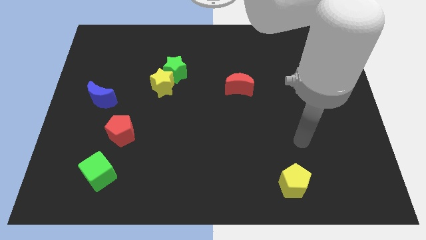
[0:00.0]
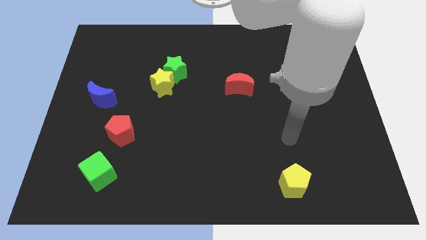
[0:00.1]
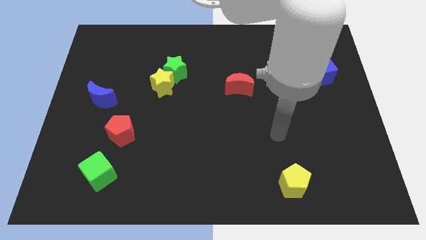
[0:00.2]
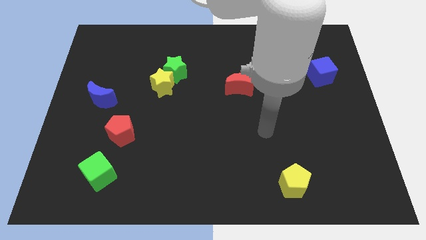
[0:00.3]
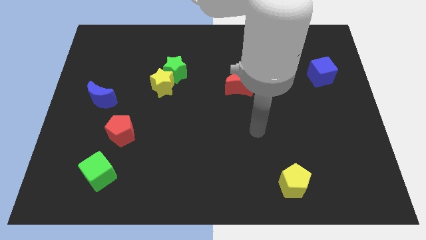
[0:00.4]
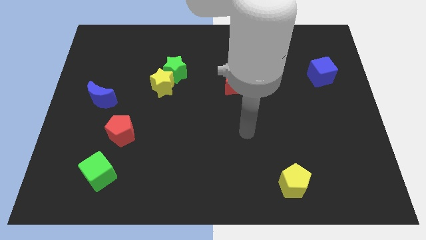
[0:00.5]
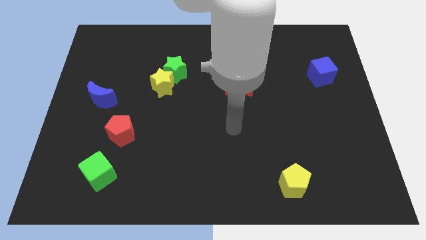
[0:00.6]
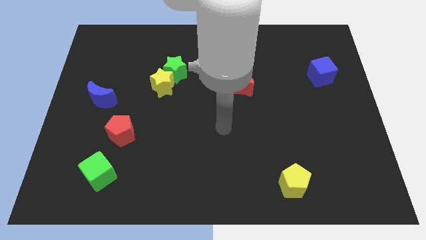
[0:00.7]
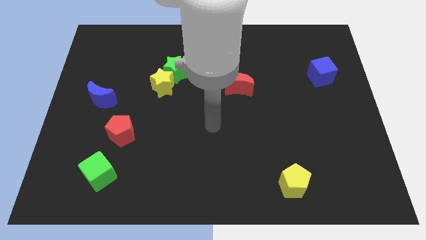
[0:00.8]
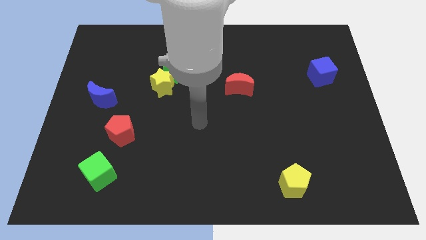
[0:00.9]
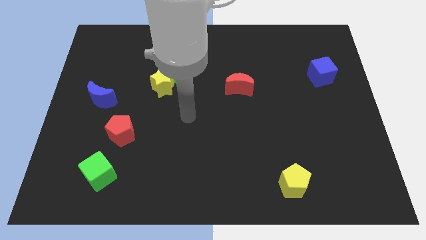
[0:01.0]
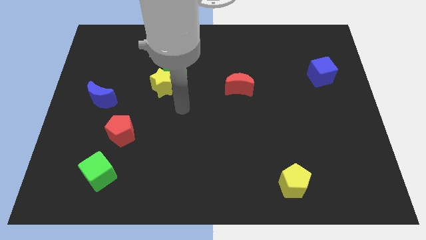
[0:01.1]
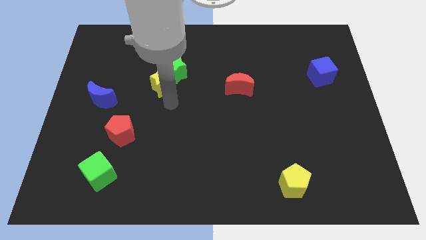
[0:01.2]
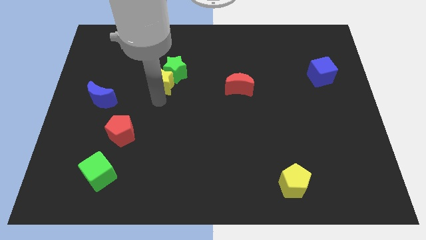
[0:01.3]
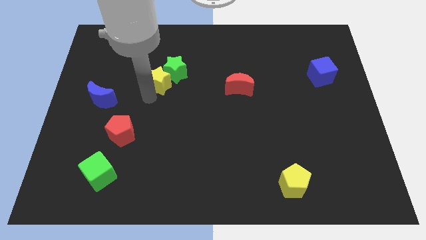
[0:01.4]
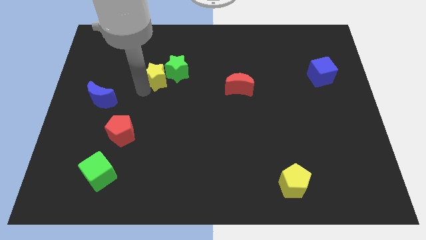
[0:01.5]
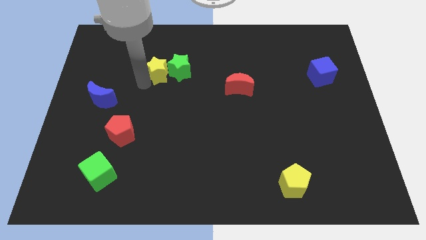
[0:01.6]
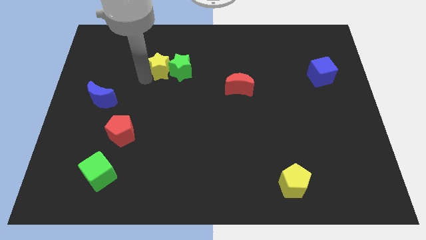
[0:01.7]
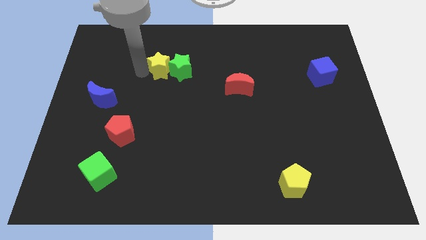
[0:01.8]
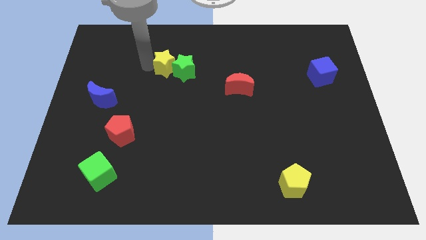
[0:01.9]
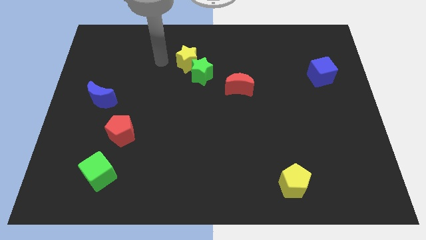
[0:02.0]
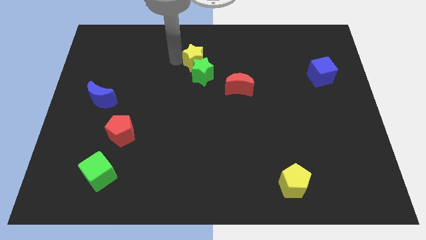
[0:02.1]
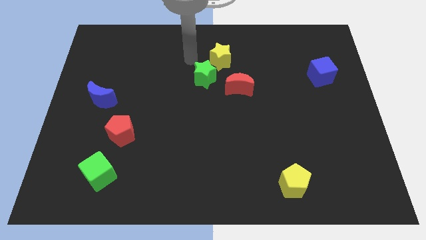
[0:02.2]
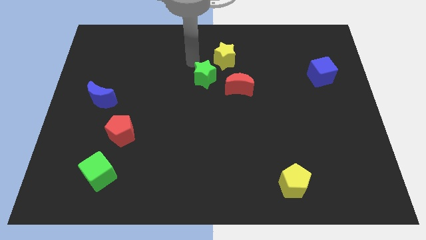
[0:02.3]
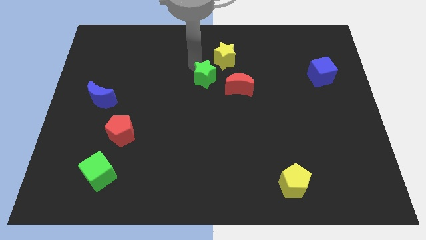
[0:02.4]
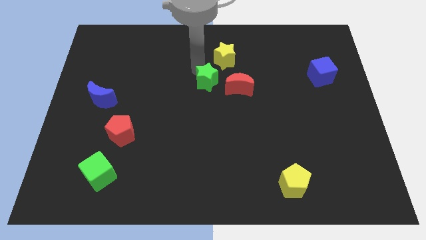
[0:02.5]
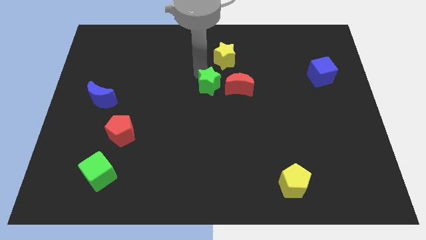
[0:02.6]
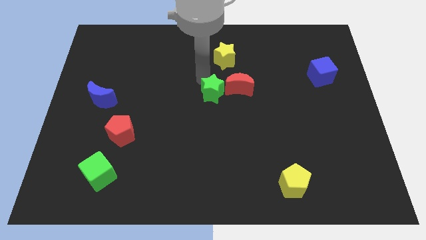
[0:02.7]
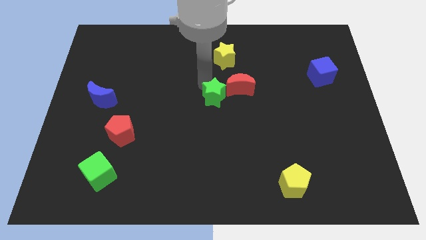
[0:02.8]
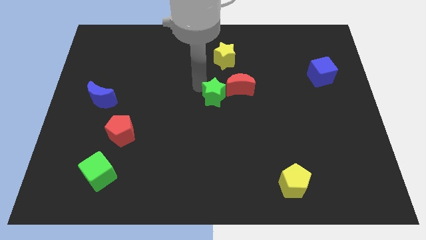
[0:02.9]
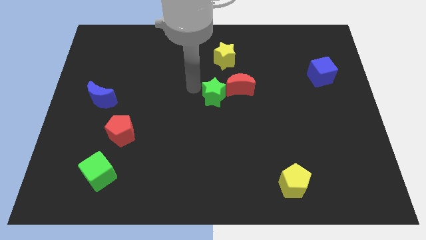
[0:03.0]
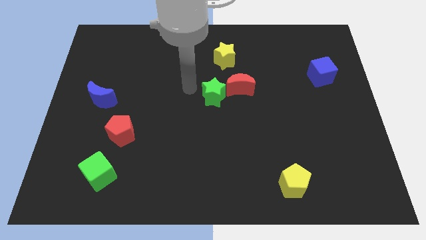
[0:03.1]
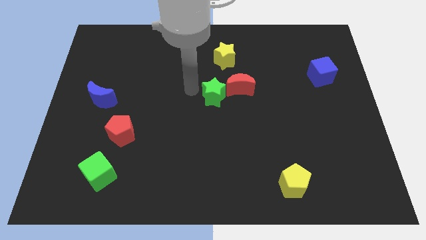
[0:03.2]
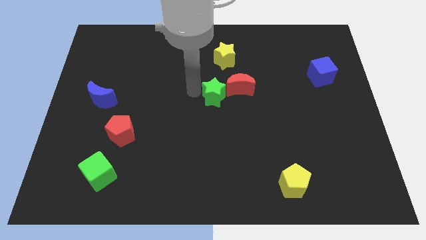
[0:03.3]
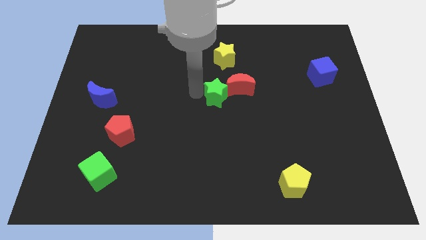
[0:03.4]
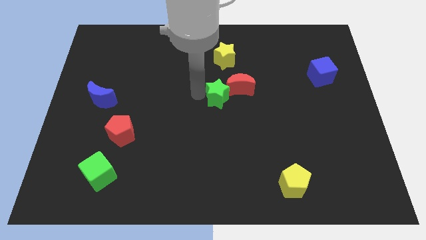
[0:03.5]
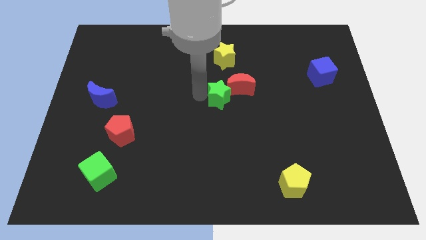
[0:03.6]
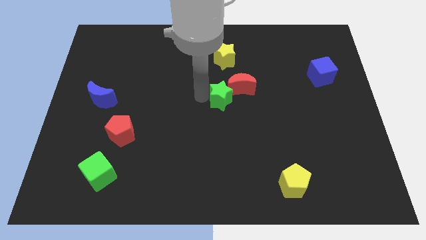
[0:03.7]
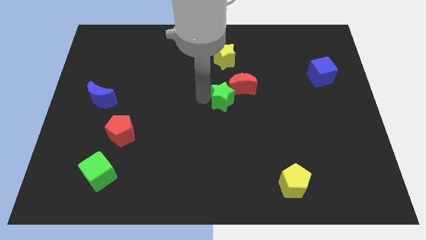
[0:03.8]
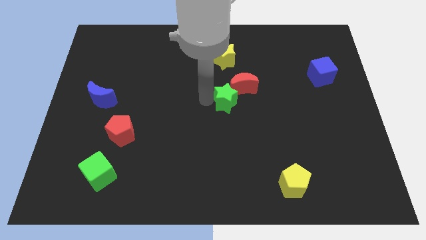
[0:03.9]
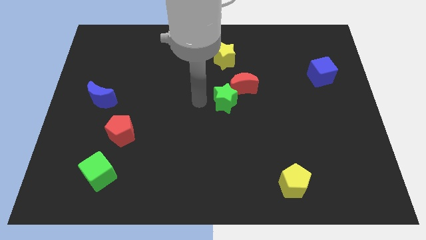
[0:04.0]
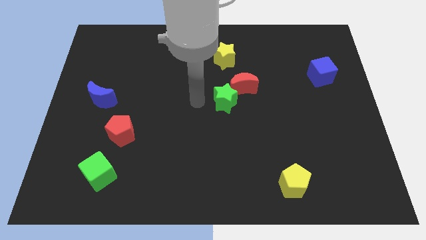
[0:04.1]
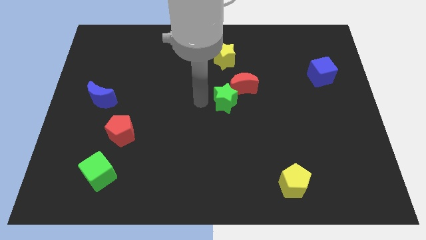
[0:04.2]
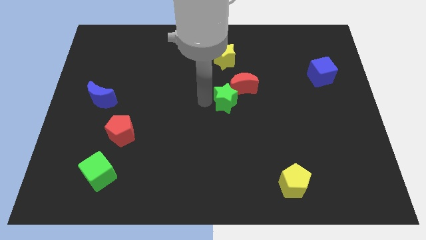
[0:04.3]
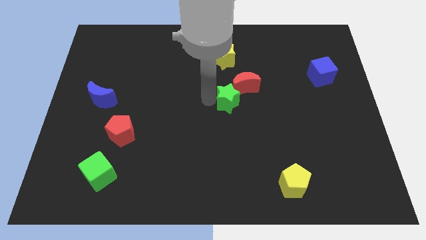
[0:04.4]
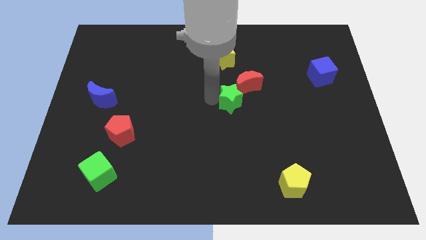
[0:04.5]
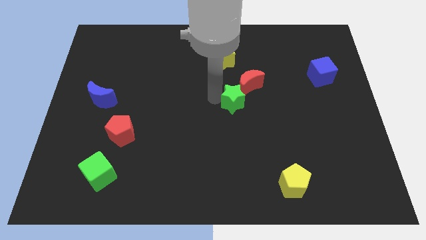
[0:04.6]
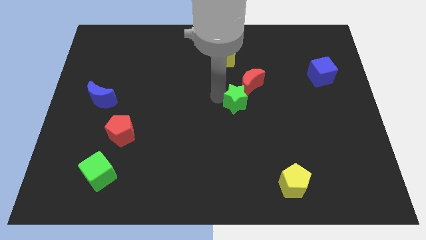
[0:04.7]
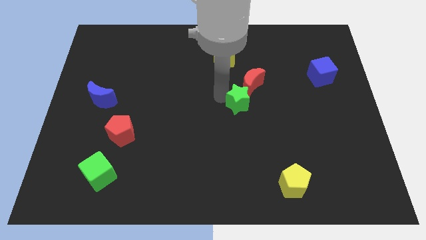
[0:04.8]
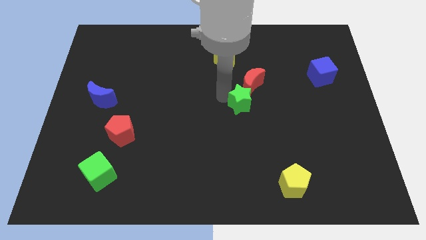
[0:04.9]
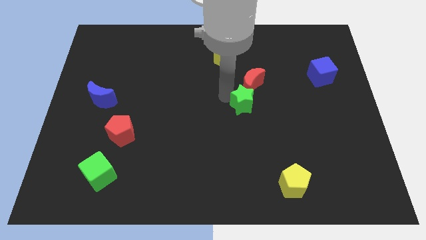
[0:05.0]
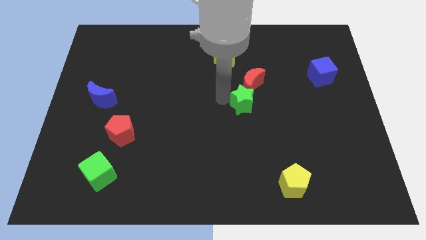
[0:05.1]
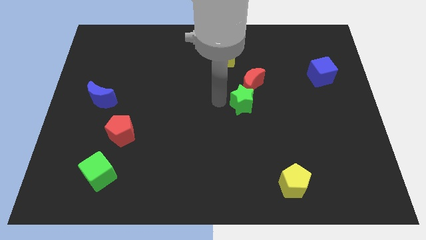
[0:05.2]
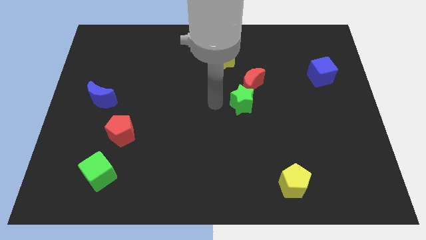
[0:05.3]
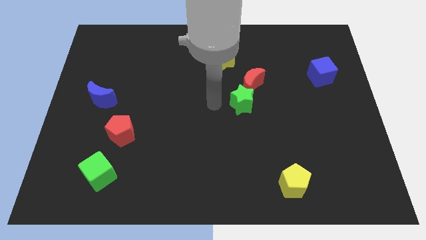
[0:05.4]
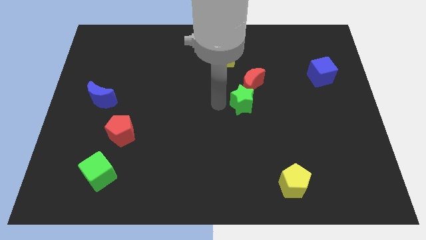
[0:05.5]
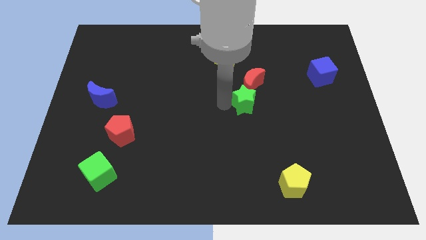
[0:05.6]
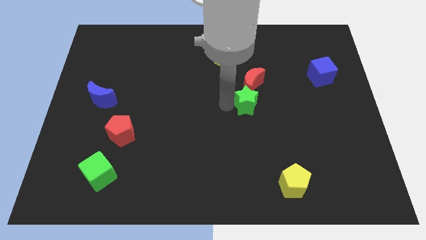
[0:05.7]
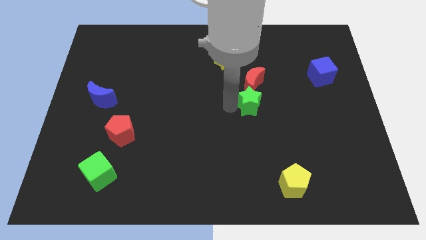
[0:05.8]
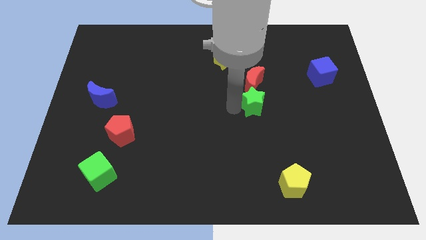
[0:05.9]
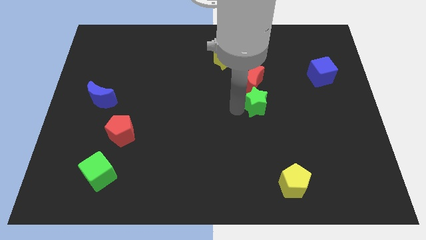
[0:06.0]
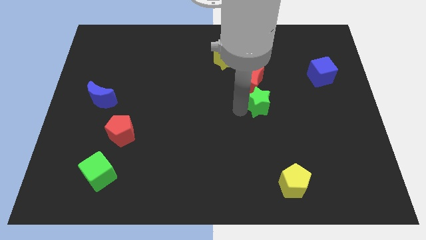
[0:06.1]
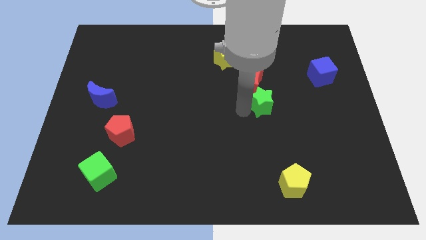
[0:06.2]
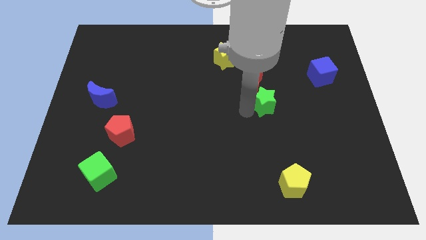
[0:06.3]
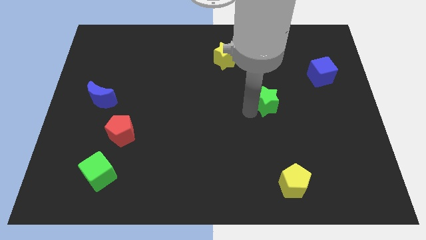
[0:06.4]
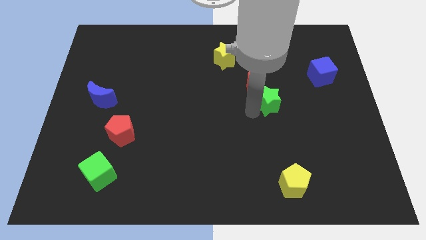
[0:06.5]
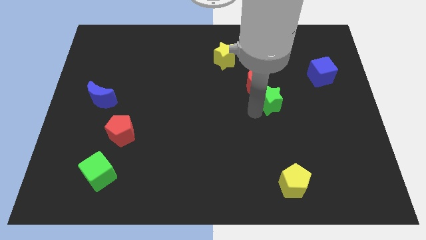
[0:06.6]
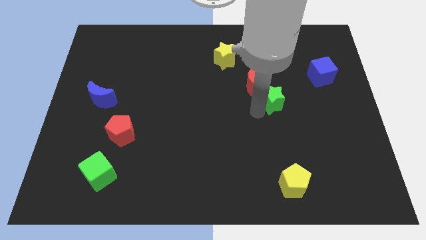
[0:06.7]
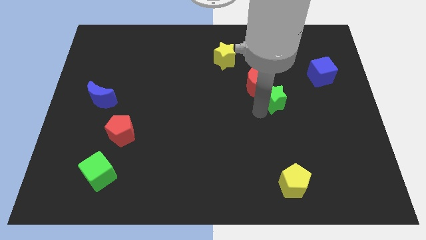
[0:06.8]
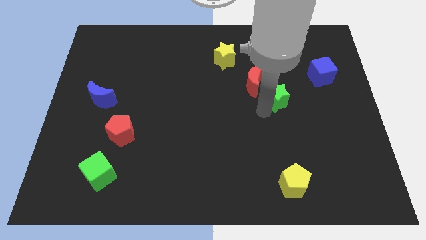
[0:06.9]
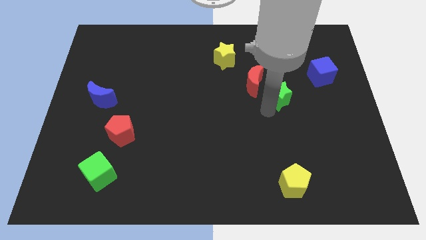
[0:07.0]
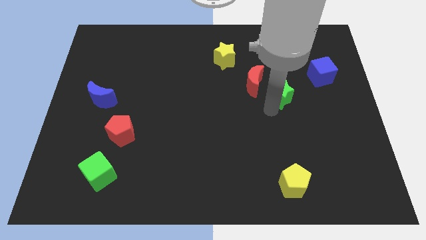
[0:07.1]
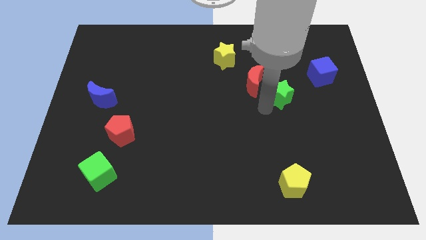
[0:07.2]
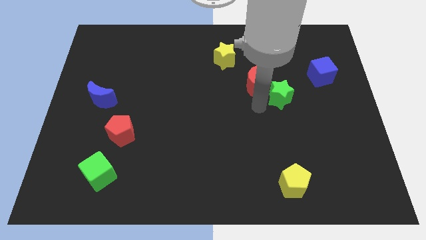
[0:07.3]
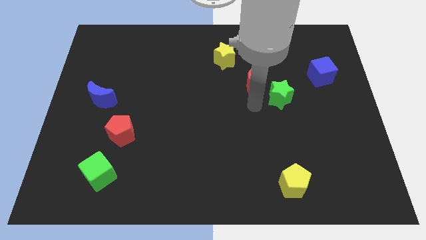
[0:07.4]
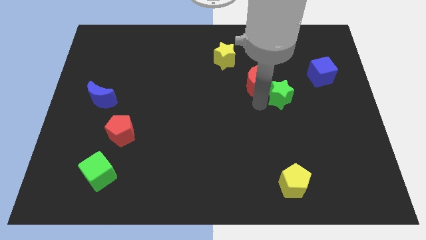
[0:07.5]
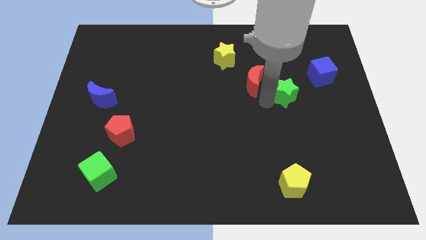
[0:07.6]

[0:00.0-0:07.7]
put the green star to the bottom left side of the blue cube

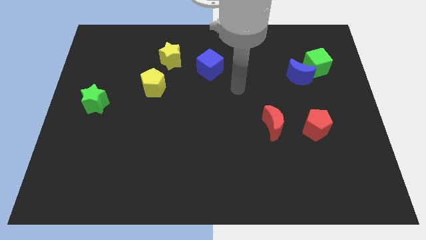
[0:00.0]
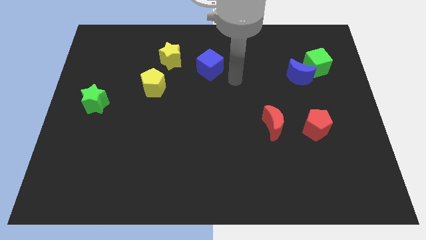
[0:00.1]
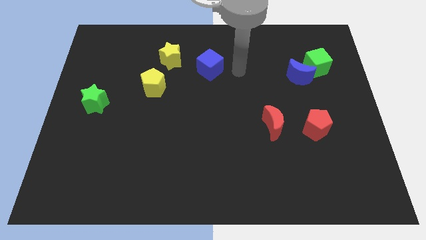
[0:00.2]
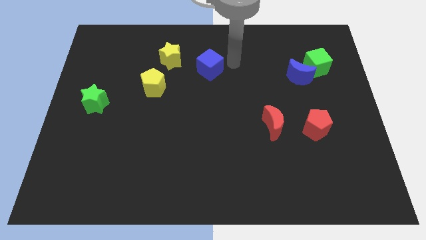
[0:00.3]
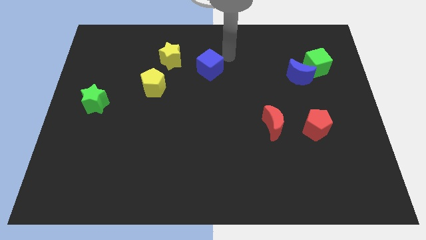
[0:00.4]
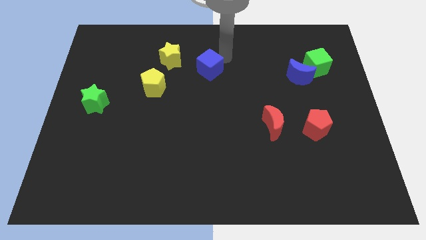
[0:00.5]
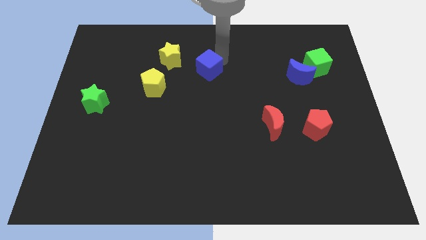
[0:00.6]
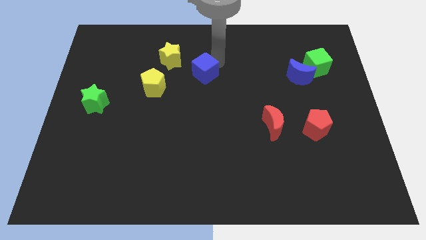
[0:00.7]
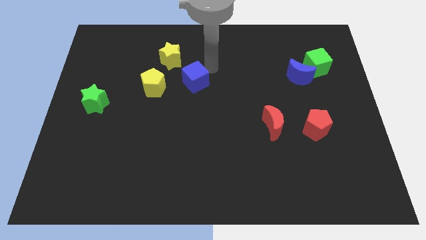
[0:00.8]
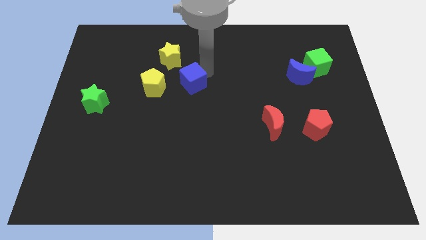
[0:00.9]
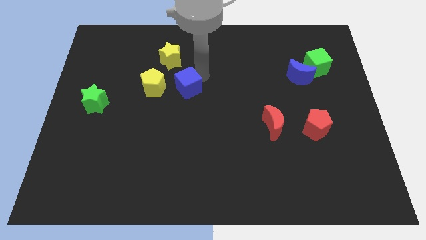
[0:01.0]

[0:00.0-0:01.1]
move the blue cube to the bottom of the yellow star
